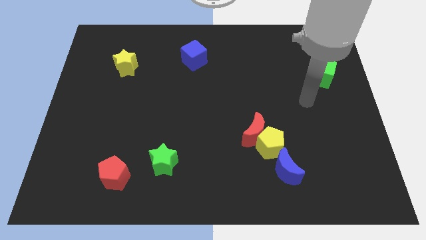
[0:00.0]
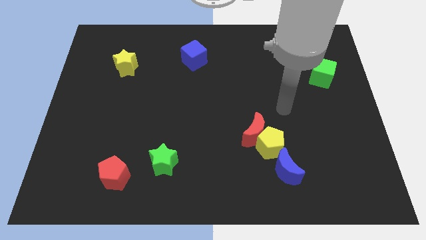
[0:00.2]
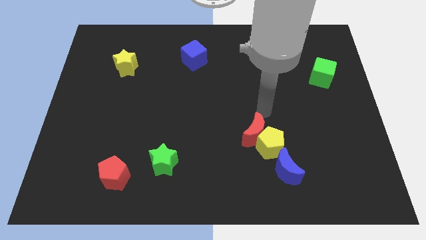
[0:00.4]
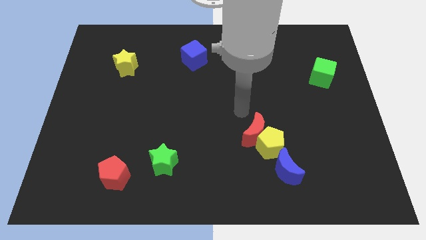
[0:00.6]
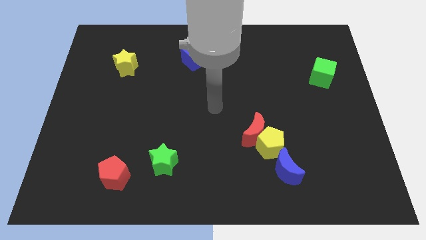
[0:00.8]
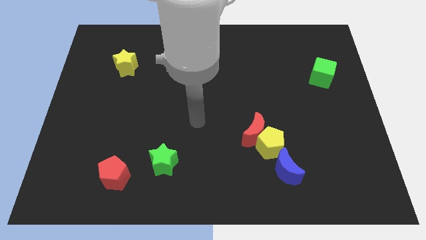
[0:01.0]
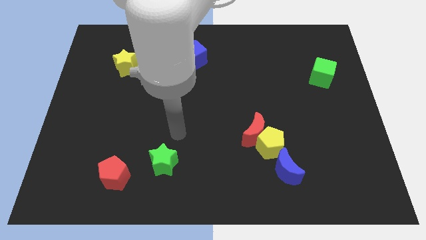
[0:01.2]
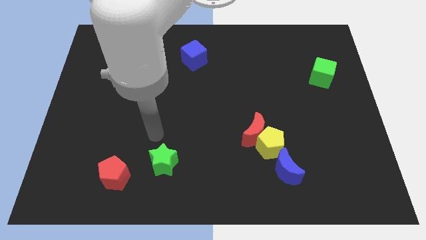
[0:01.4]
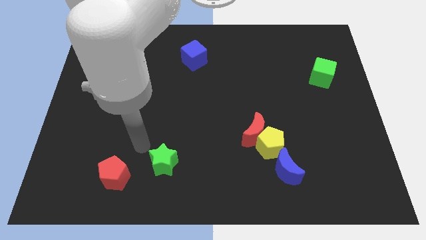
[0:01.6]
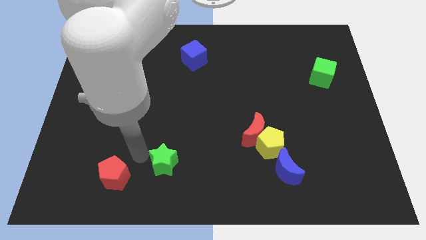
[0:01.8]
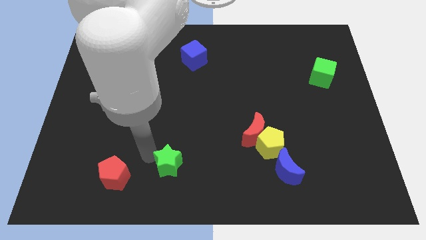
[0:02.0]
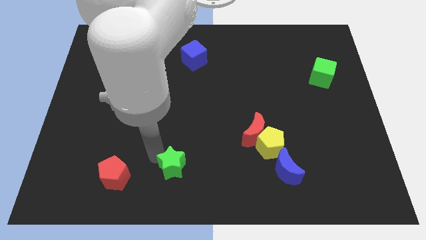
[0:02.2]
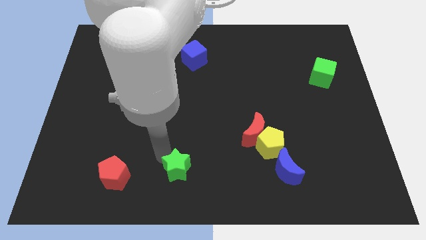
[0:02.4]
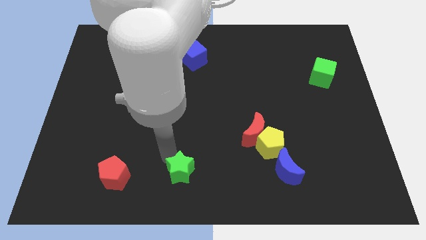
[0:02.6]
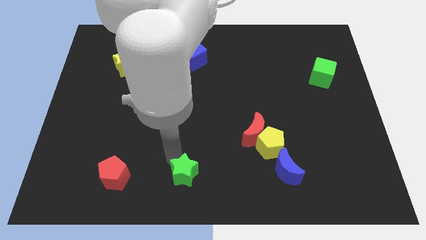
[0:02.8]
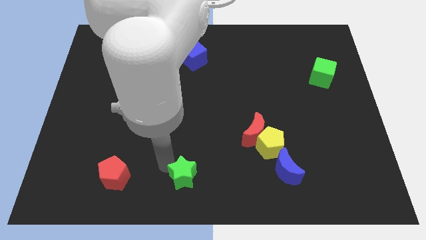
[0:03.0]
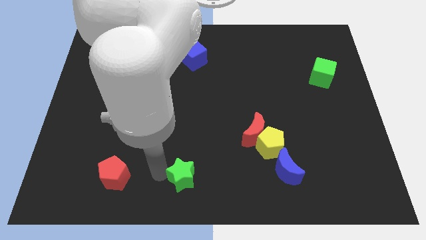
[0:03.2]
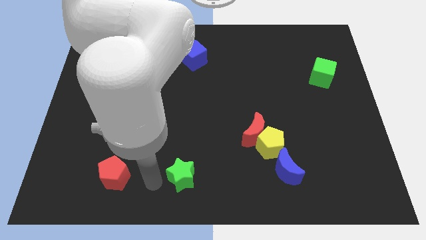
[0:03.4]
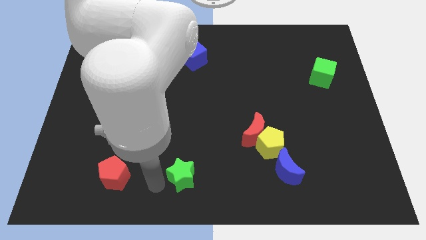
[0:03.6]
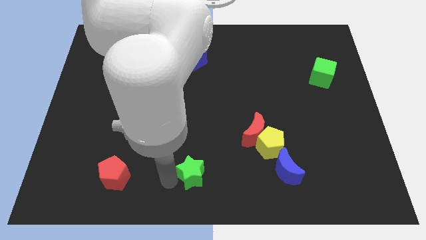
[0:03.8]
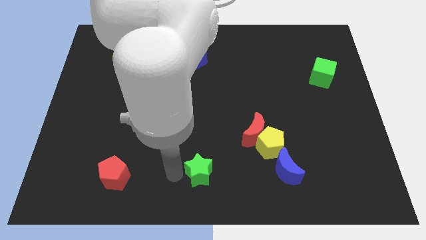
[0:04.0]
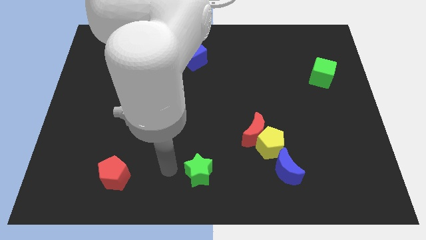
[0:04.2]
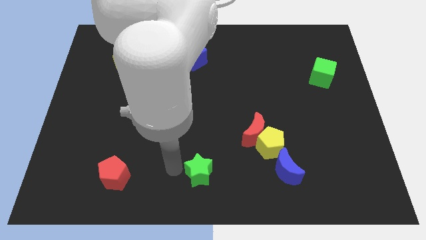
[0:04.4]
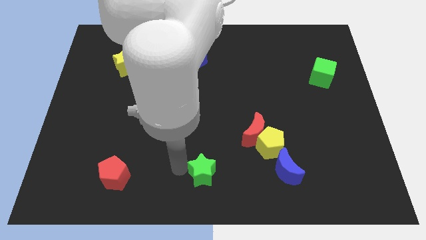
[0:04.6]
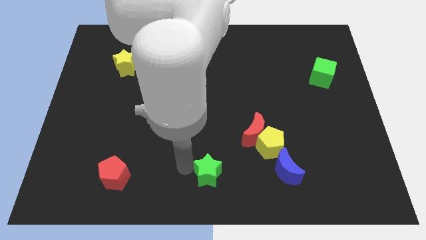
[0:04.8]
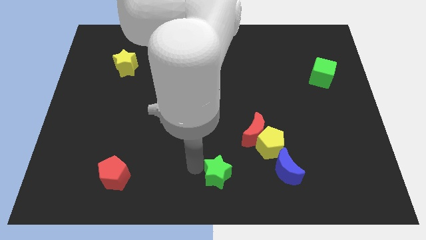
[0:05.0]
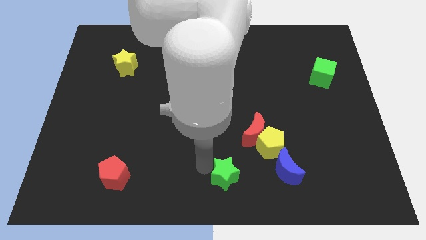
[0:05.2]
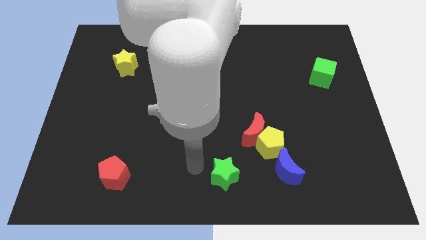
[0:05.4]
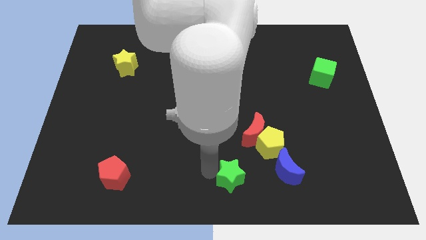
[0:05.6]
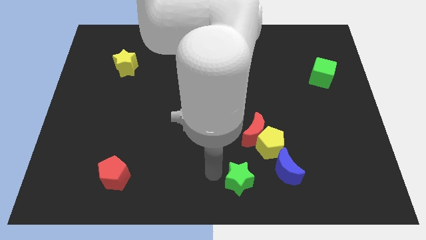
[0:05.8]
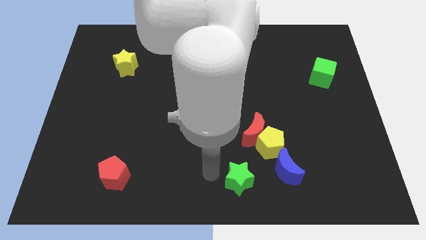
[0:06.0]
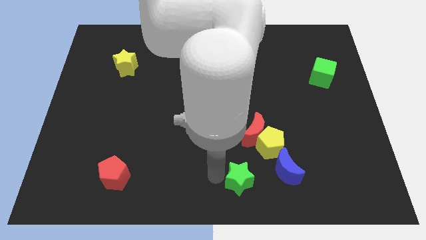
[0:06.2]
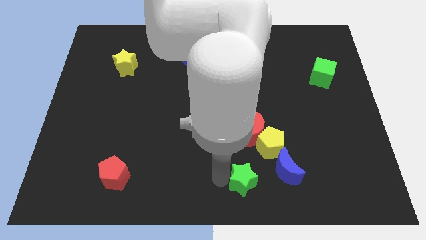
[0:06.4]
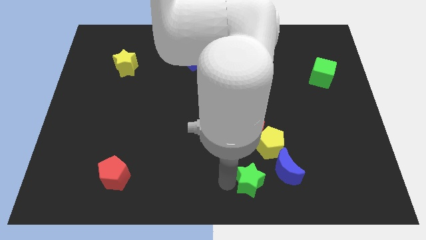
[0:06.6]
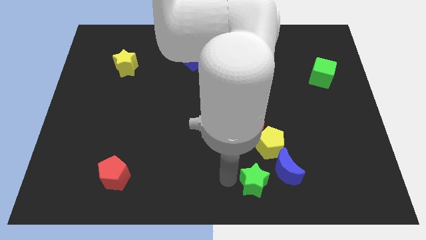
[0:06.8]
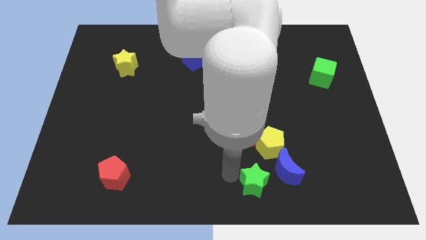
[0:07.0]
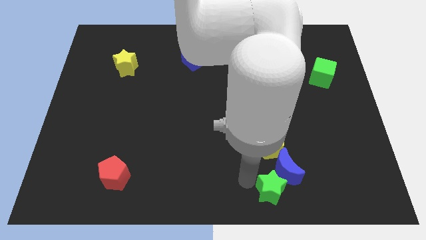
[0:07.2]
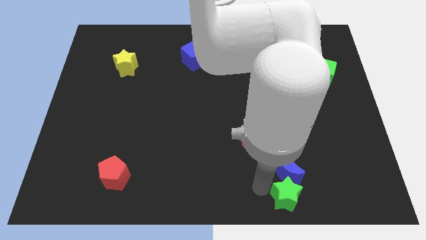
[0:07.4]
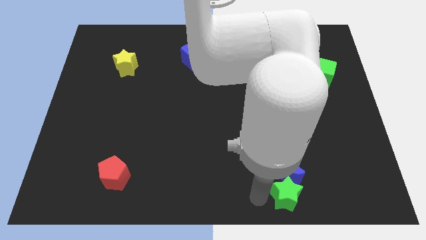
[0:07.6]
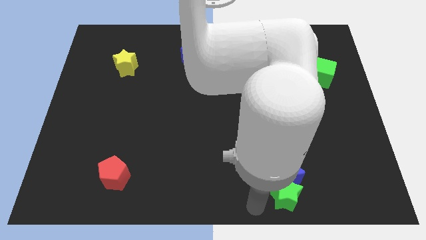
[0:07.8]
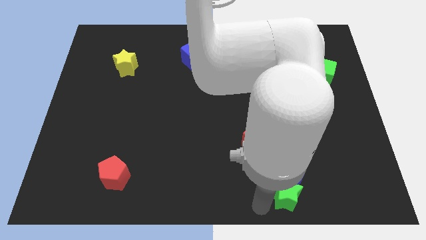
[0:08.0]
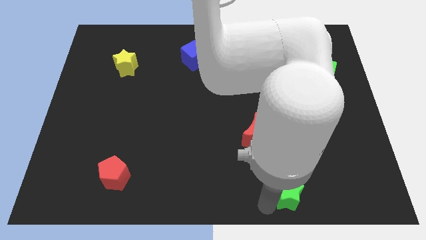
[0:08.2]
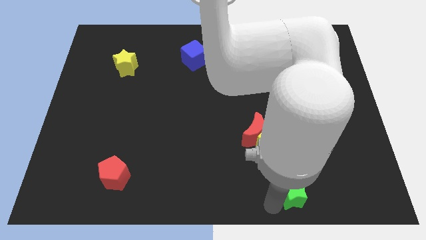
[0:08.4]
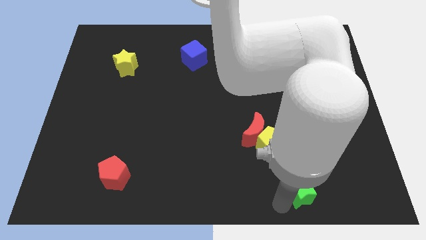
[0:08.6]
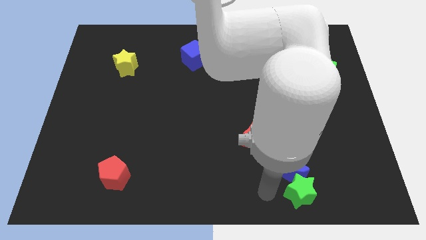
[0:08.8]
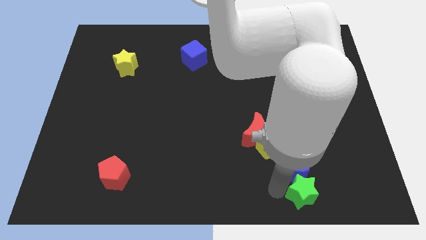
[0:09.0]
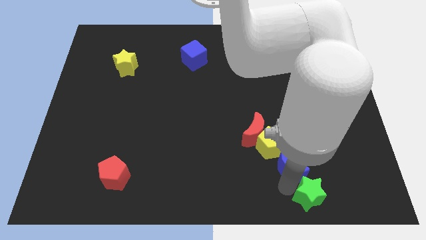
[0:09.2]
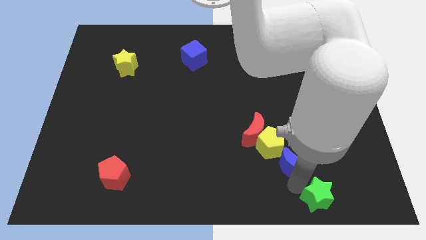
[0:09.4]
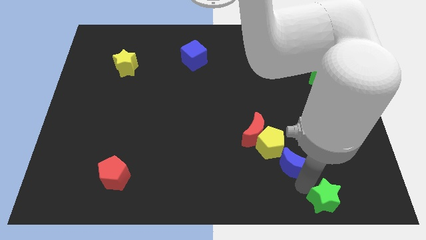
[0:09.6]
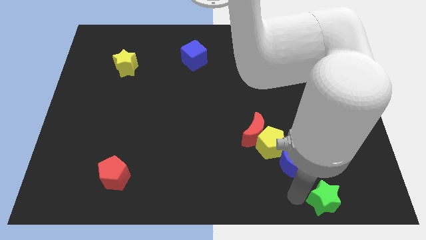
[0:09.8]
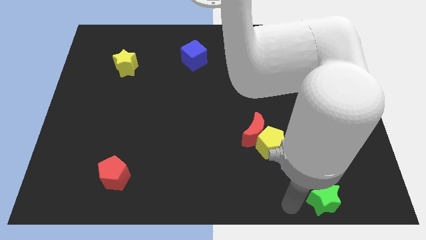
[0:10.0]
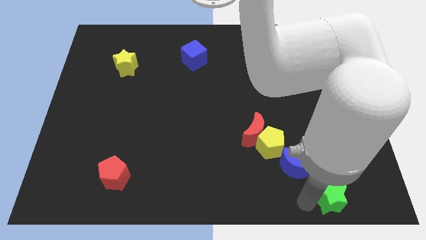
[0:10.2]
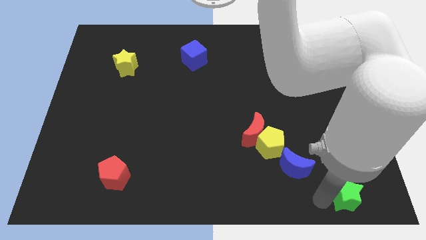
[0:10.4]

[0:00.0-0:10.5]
move the green star to the bottom right
